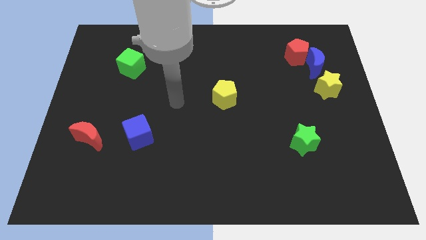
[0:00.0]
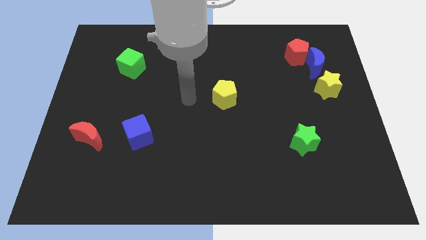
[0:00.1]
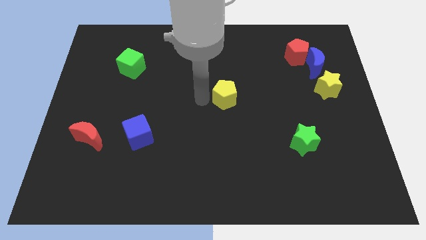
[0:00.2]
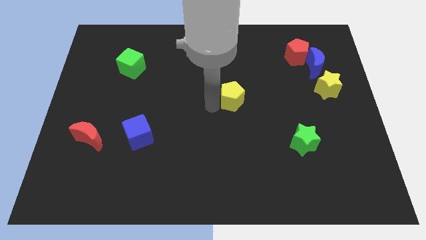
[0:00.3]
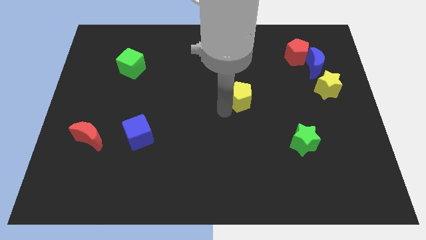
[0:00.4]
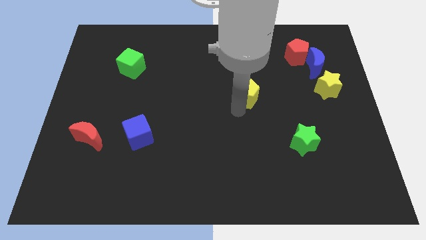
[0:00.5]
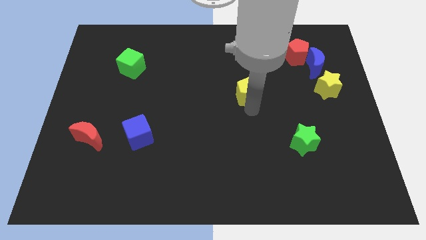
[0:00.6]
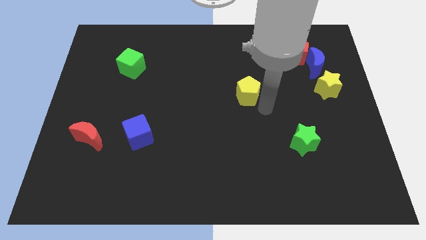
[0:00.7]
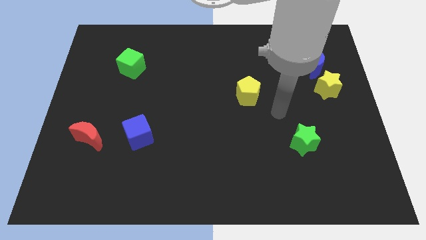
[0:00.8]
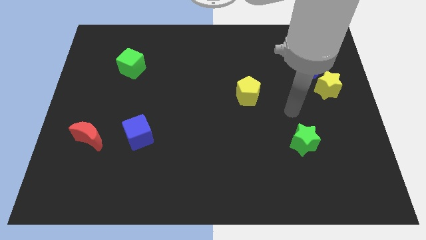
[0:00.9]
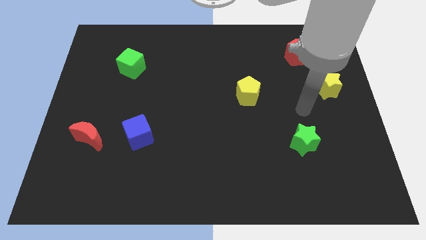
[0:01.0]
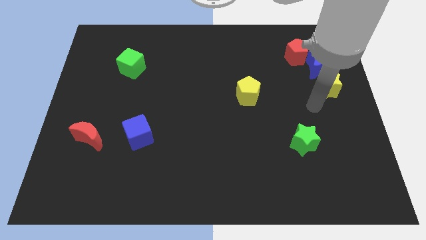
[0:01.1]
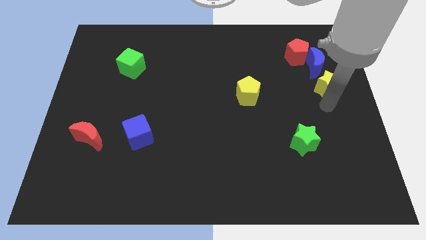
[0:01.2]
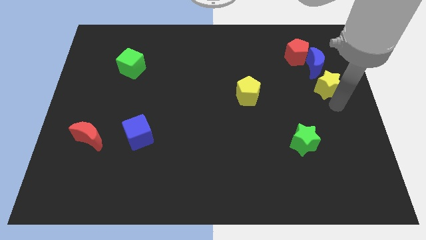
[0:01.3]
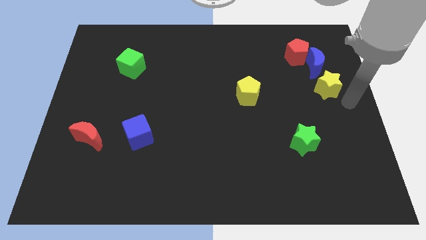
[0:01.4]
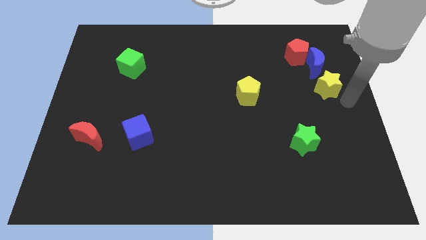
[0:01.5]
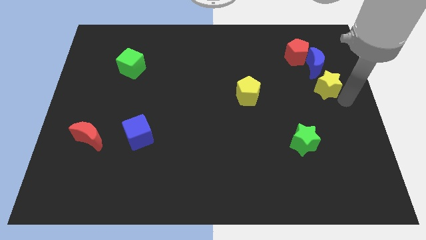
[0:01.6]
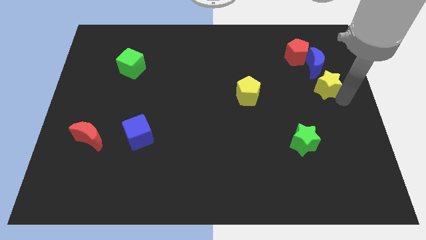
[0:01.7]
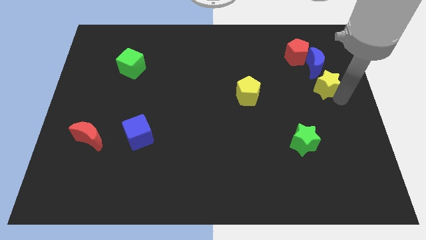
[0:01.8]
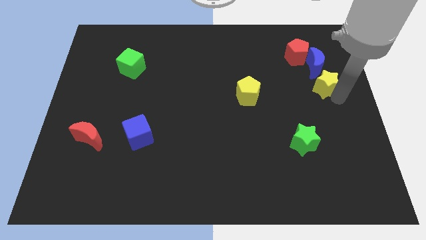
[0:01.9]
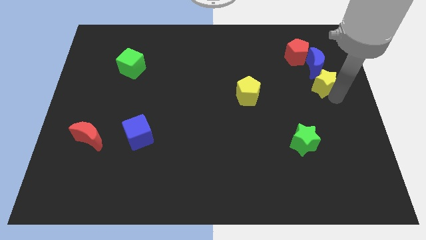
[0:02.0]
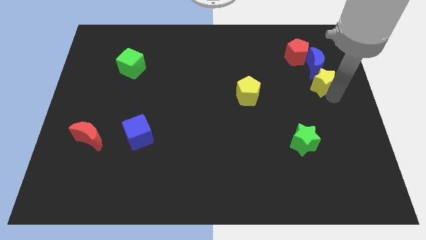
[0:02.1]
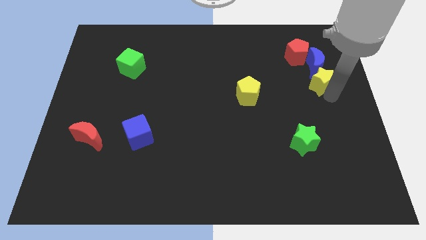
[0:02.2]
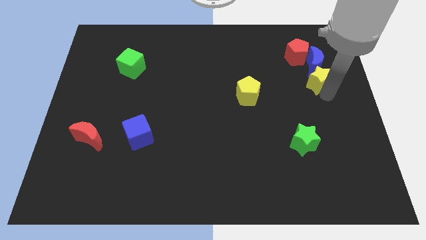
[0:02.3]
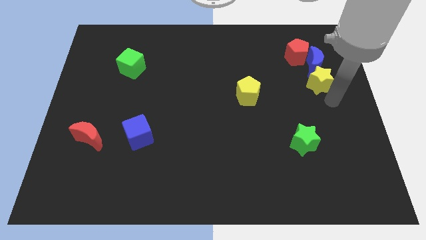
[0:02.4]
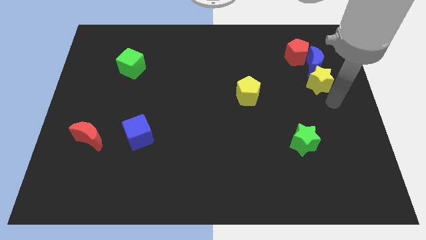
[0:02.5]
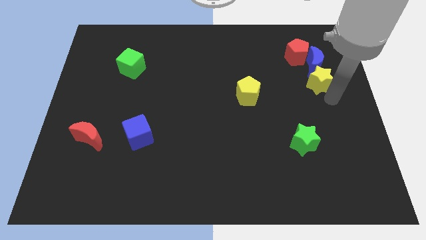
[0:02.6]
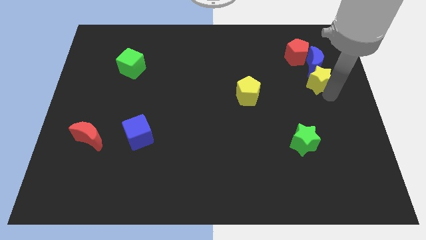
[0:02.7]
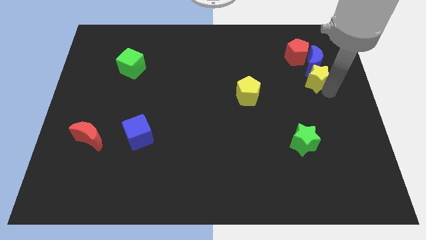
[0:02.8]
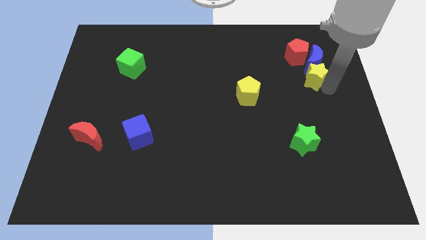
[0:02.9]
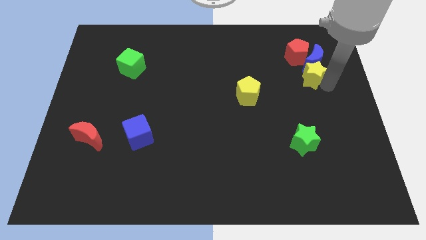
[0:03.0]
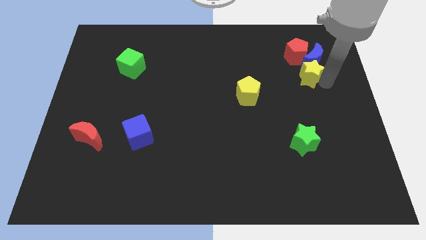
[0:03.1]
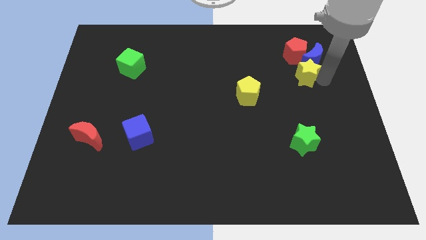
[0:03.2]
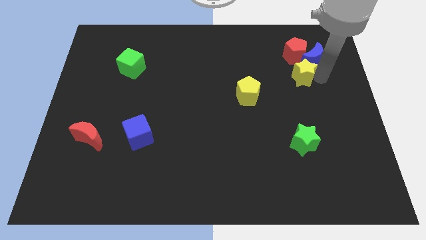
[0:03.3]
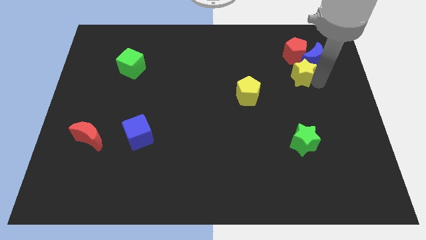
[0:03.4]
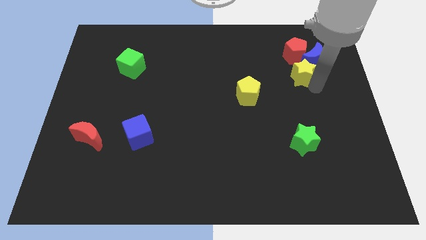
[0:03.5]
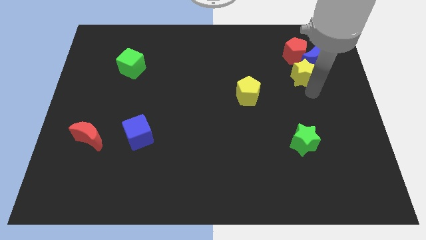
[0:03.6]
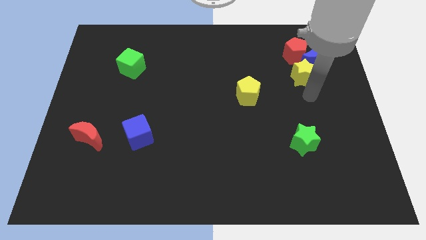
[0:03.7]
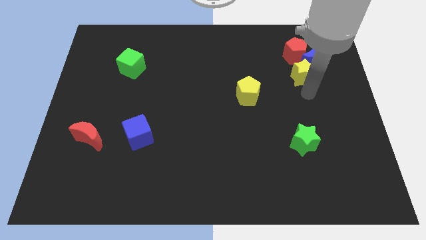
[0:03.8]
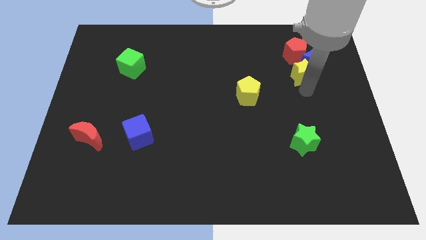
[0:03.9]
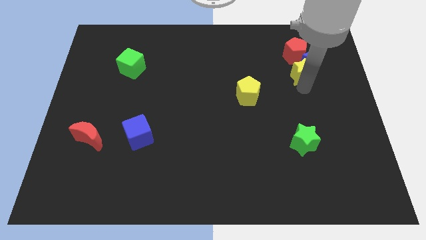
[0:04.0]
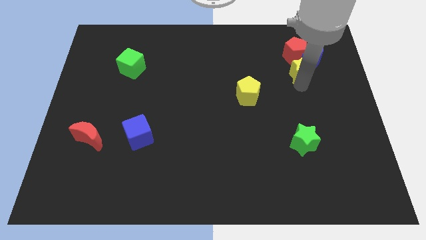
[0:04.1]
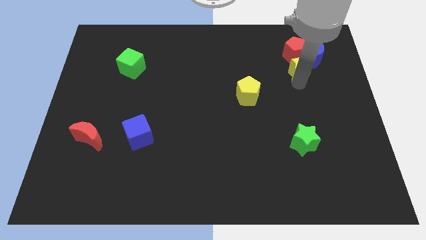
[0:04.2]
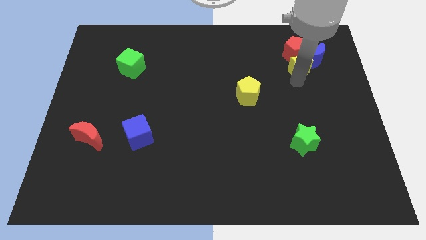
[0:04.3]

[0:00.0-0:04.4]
move the yellow star to the red pentagon

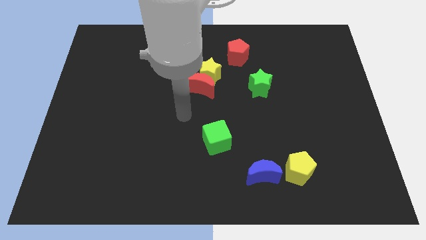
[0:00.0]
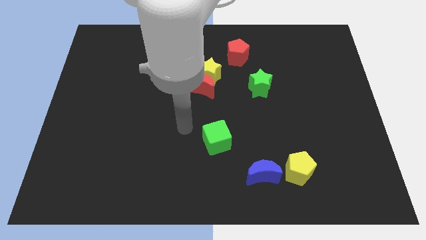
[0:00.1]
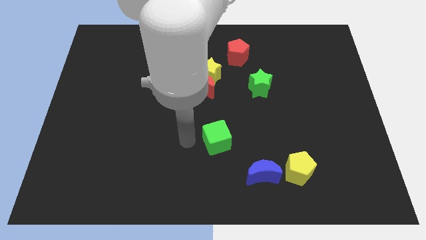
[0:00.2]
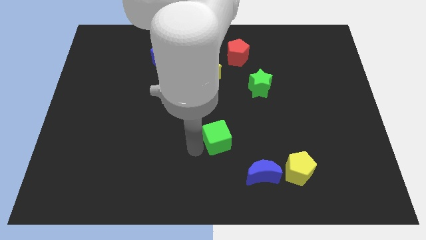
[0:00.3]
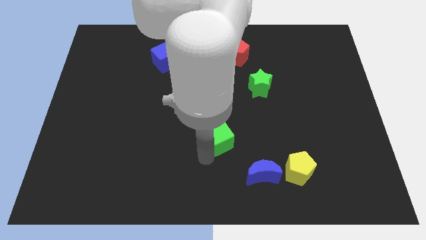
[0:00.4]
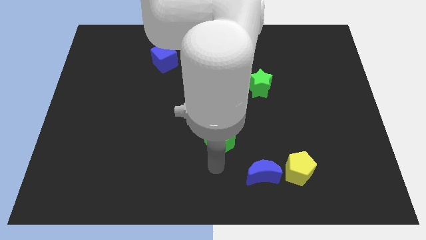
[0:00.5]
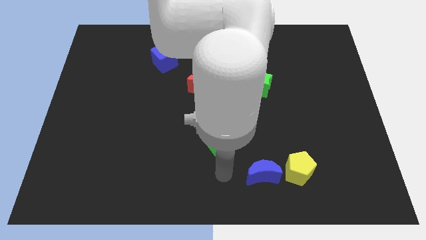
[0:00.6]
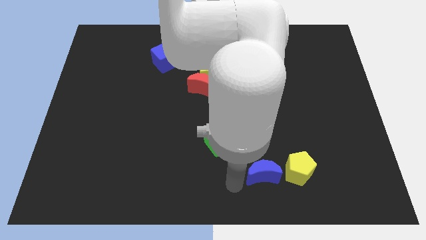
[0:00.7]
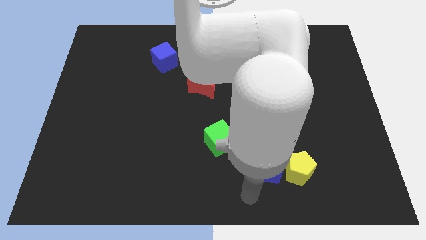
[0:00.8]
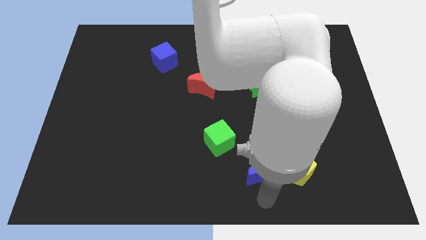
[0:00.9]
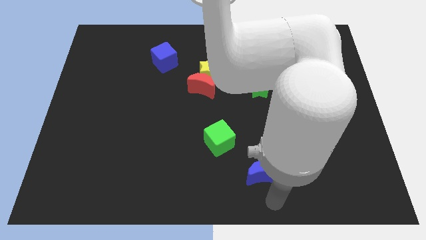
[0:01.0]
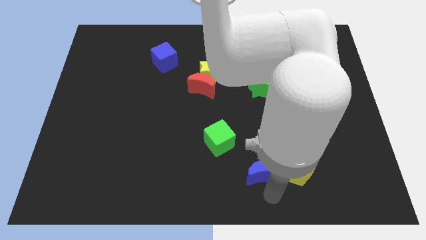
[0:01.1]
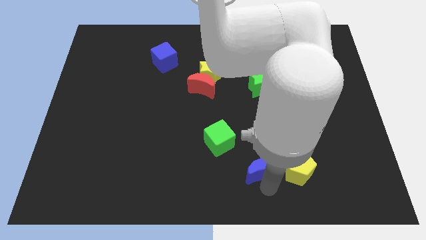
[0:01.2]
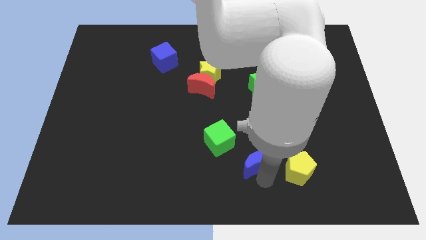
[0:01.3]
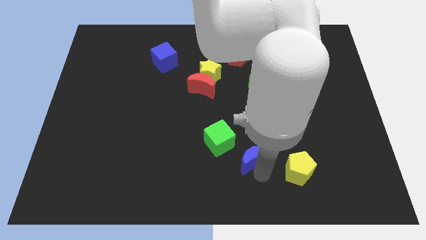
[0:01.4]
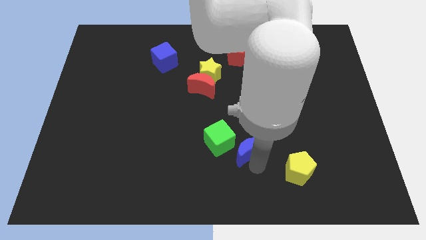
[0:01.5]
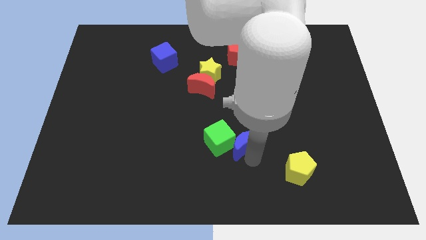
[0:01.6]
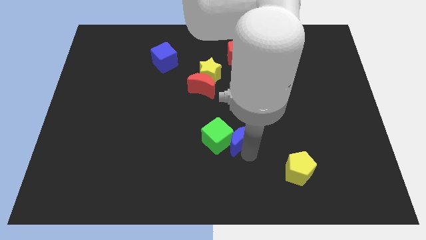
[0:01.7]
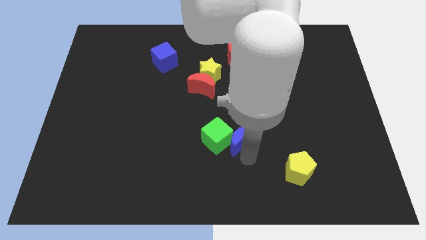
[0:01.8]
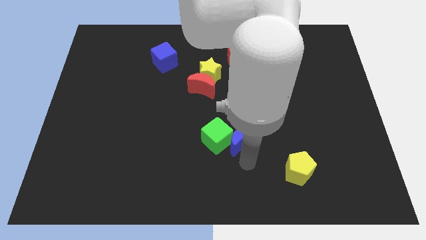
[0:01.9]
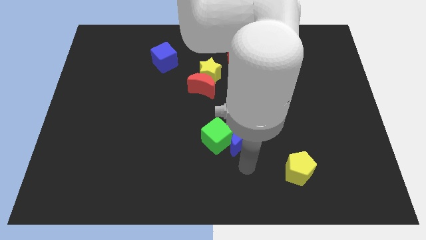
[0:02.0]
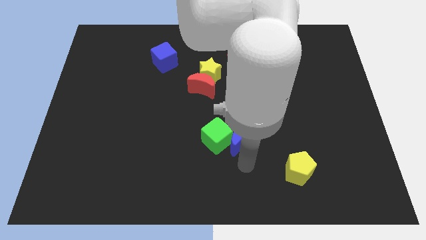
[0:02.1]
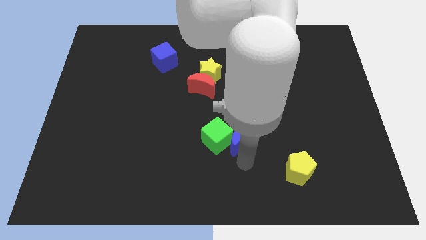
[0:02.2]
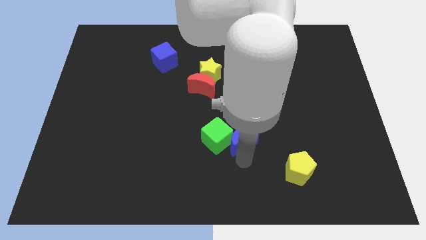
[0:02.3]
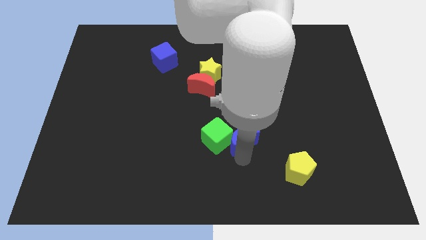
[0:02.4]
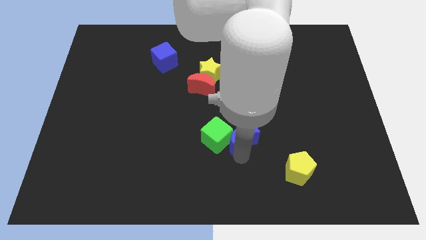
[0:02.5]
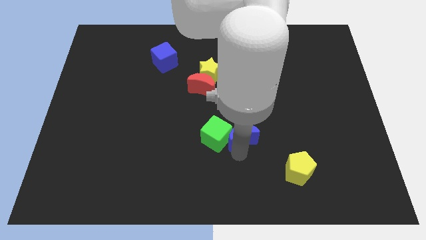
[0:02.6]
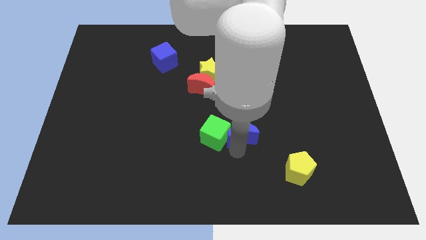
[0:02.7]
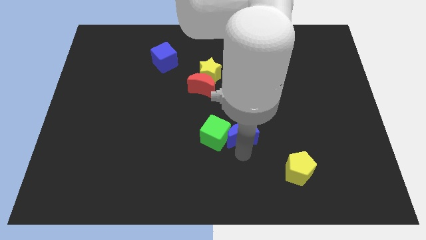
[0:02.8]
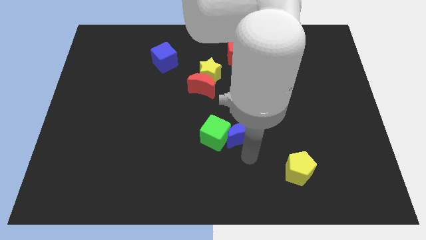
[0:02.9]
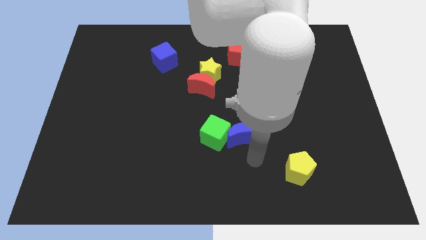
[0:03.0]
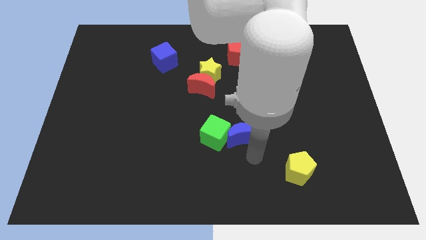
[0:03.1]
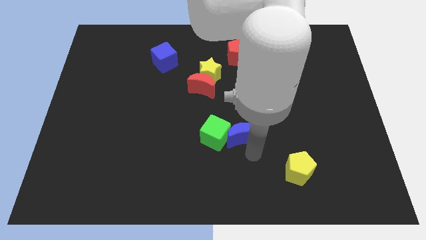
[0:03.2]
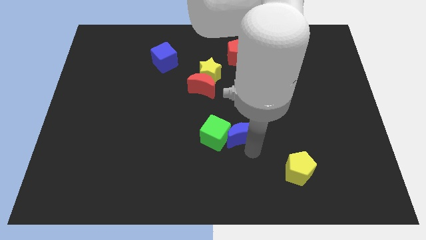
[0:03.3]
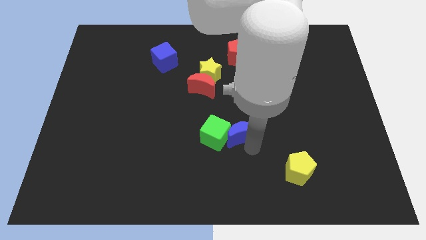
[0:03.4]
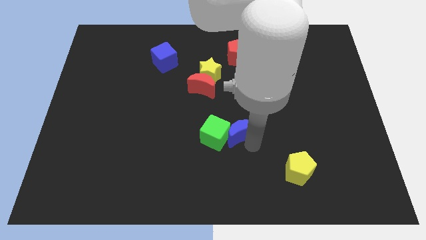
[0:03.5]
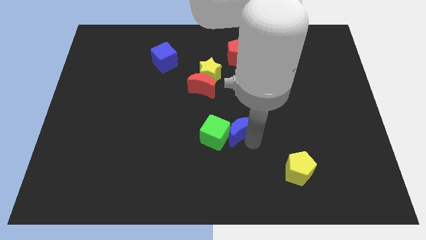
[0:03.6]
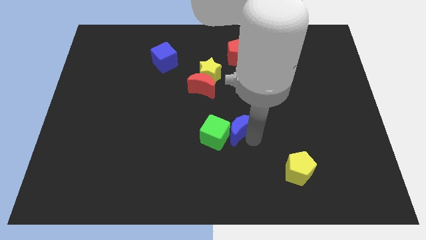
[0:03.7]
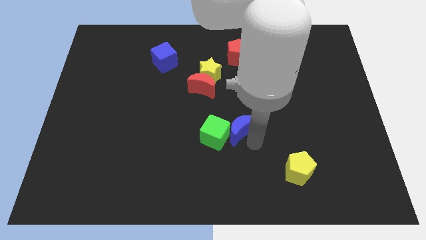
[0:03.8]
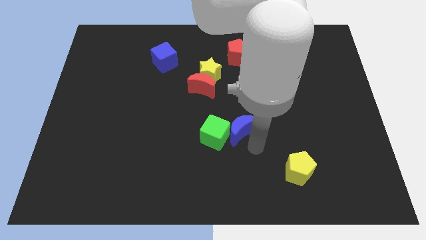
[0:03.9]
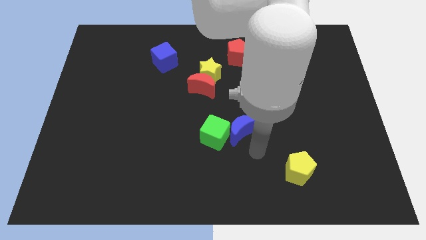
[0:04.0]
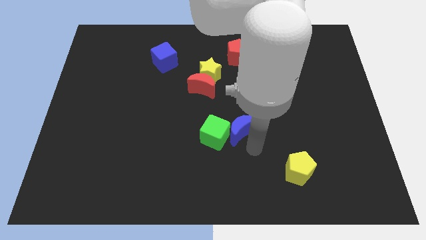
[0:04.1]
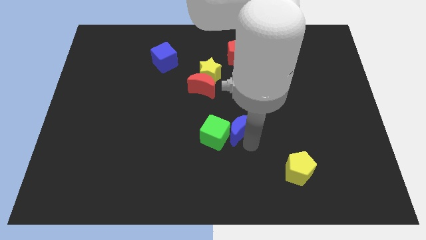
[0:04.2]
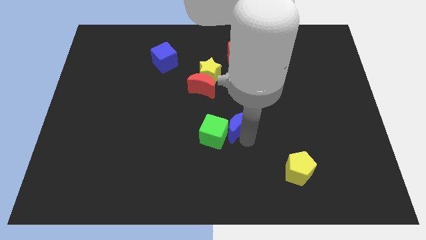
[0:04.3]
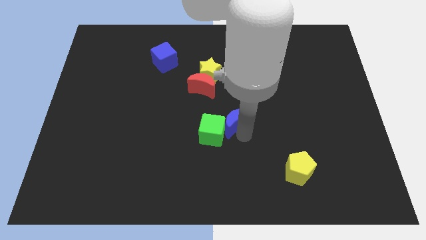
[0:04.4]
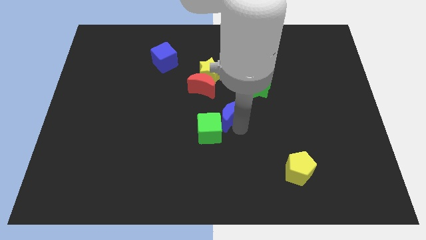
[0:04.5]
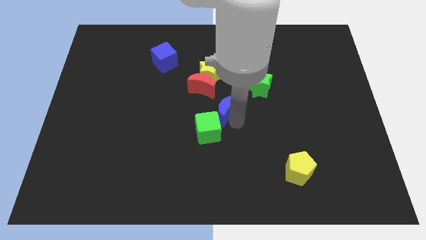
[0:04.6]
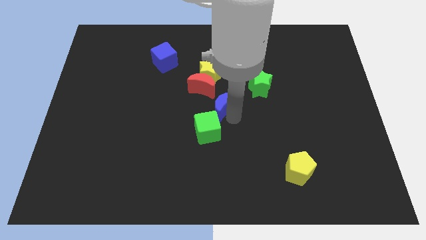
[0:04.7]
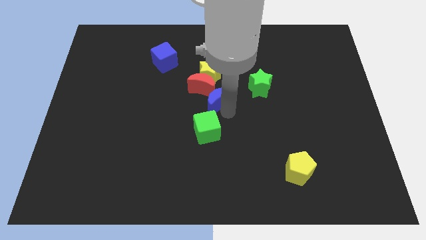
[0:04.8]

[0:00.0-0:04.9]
put the blue moon to the red moon
